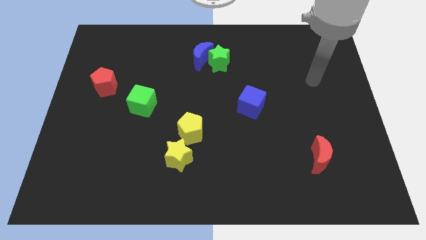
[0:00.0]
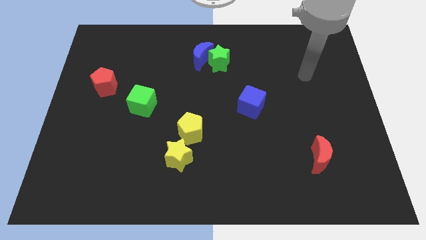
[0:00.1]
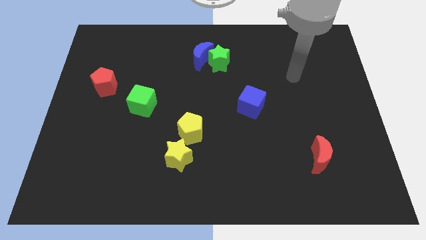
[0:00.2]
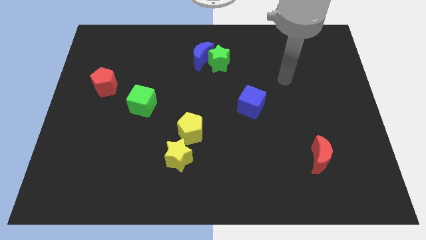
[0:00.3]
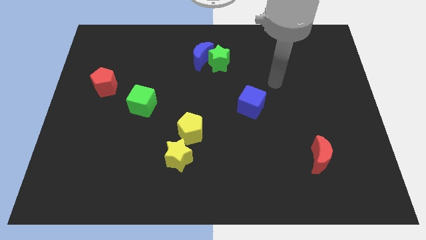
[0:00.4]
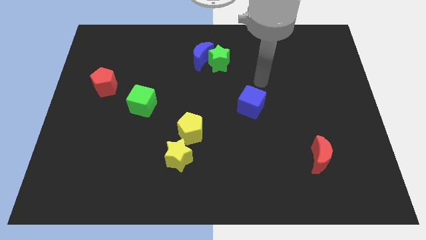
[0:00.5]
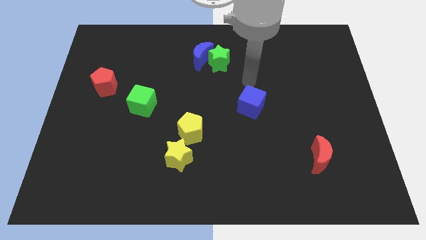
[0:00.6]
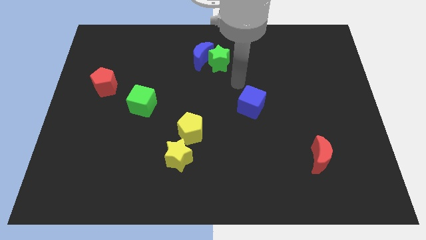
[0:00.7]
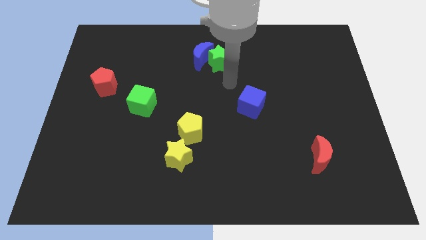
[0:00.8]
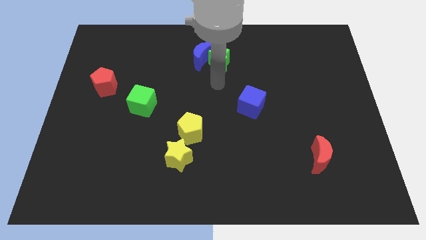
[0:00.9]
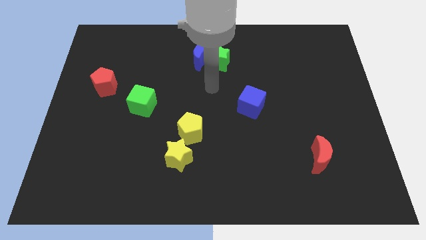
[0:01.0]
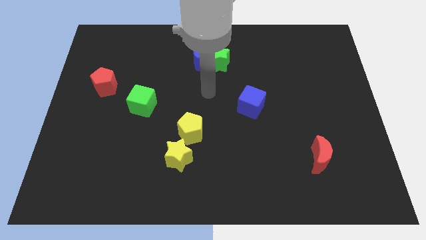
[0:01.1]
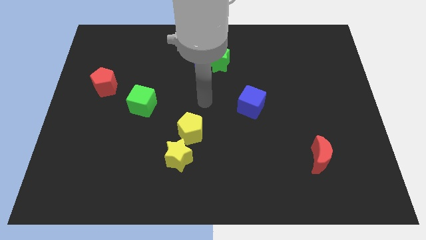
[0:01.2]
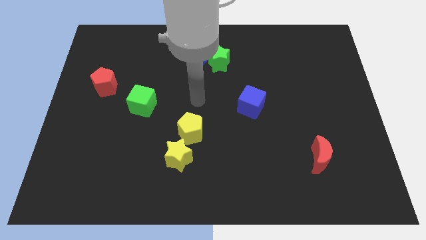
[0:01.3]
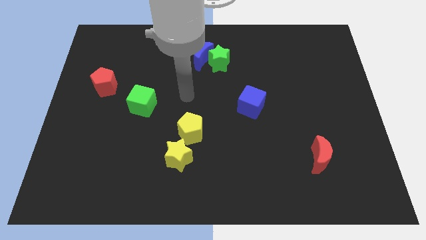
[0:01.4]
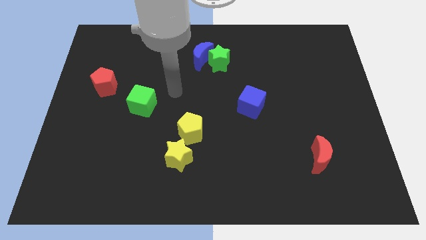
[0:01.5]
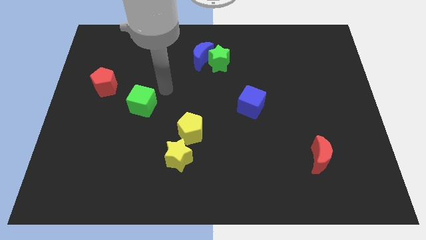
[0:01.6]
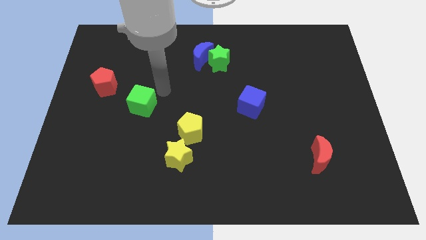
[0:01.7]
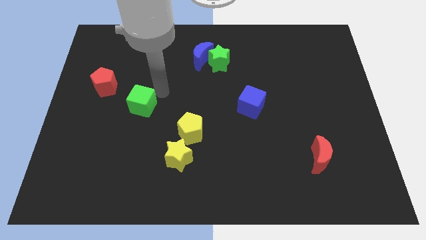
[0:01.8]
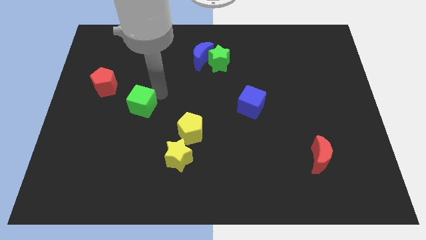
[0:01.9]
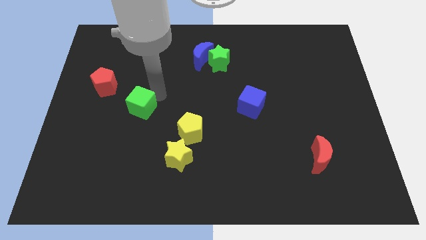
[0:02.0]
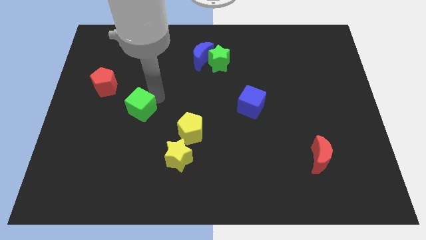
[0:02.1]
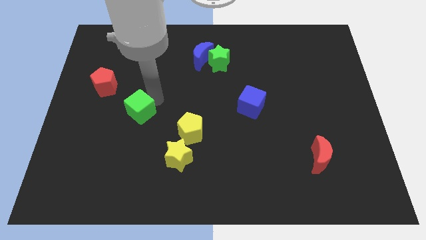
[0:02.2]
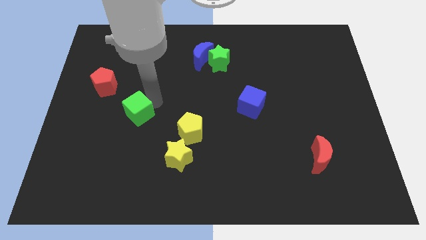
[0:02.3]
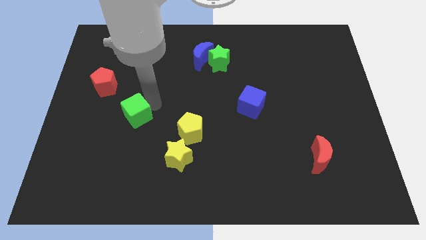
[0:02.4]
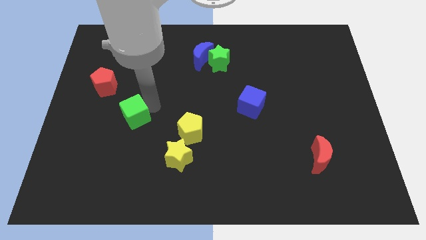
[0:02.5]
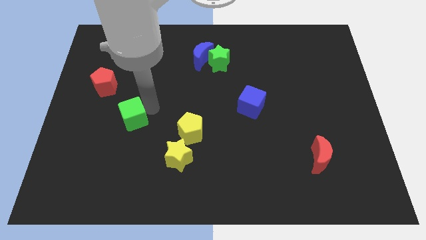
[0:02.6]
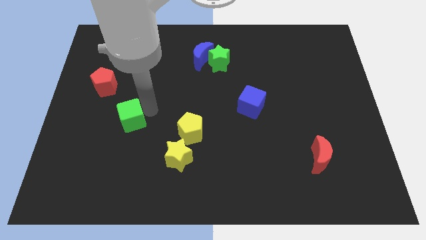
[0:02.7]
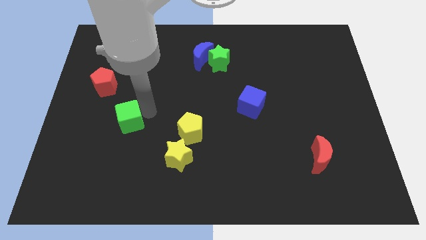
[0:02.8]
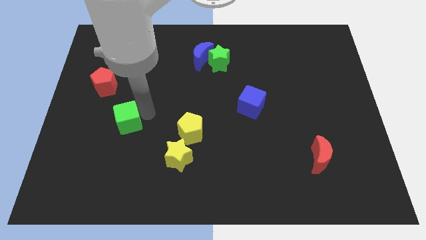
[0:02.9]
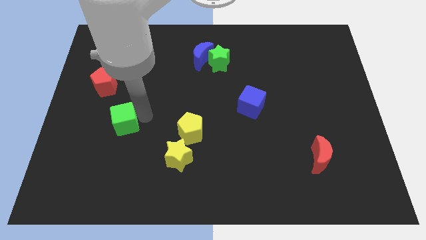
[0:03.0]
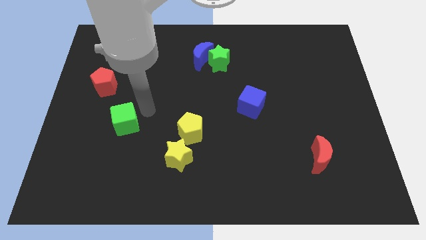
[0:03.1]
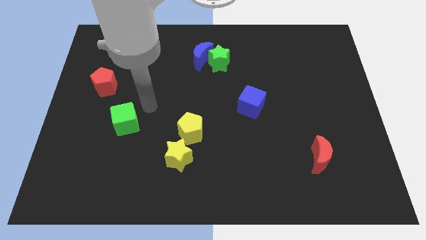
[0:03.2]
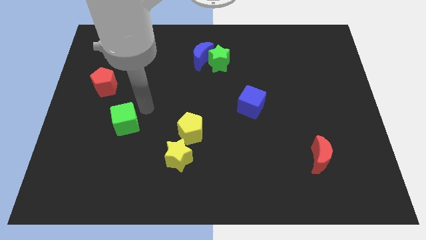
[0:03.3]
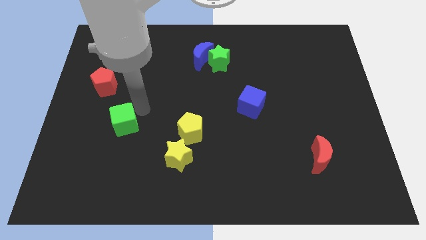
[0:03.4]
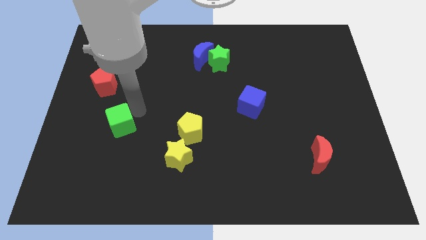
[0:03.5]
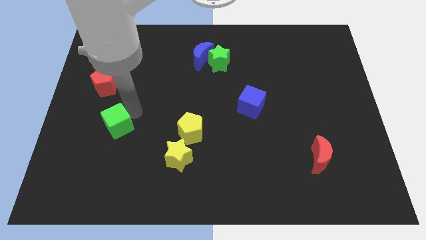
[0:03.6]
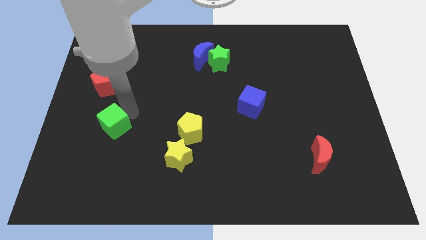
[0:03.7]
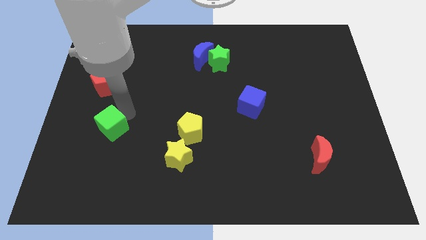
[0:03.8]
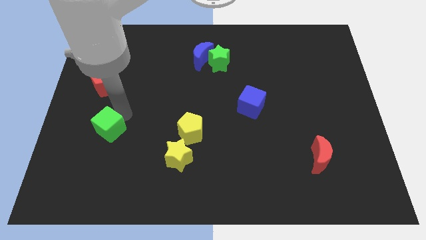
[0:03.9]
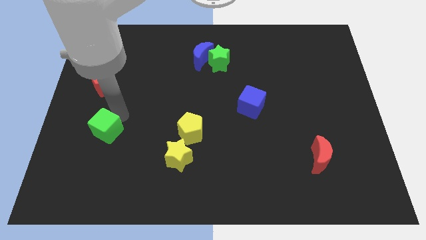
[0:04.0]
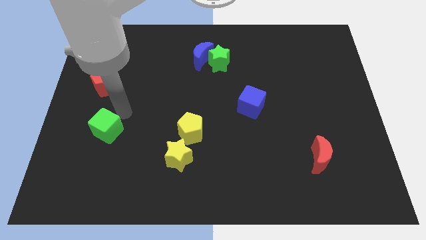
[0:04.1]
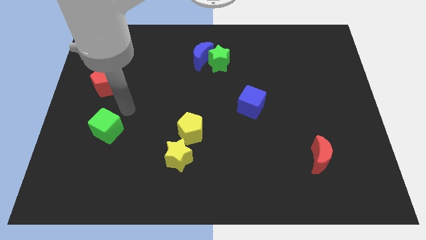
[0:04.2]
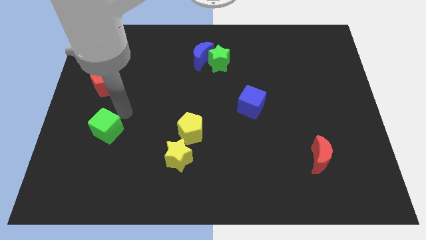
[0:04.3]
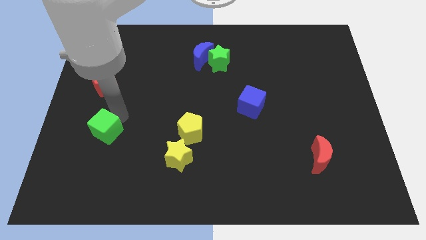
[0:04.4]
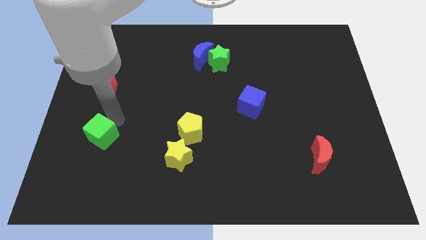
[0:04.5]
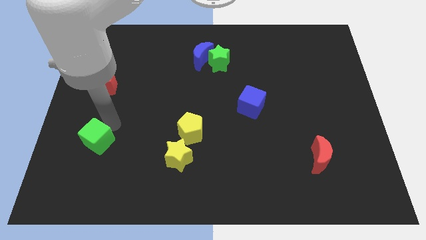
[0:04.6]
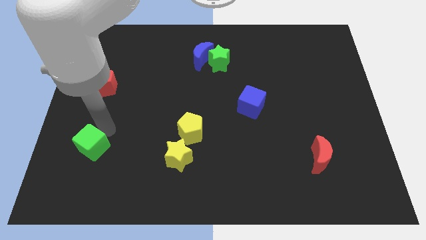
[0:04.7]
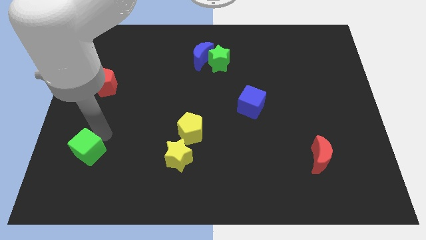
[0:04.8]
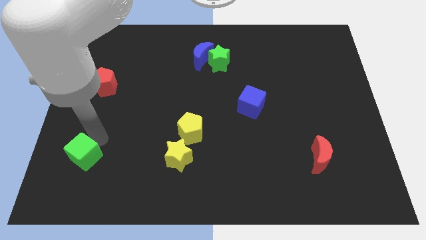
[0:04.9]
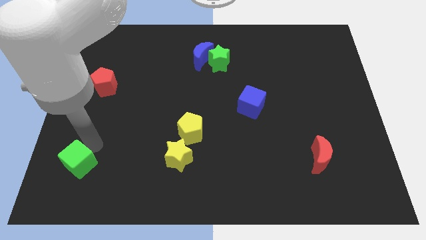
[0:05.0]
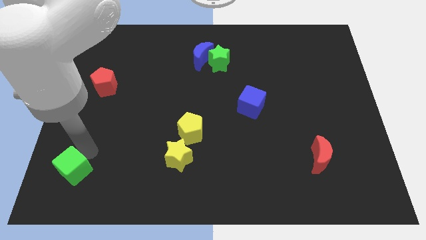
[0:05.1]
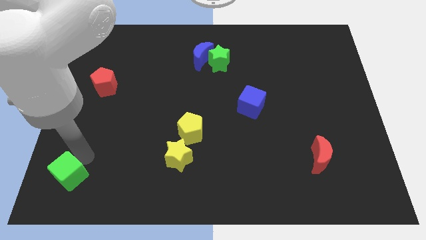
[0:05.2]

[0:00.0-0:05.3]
move the green cube to the bottom left

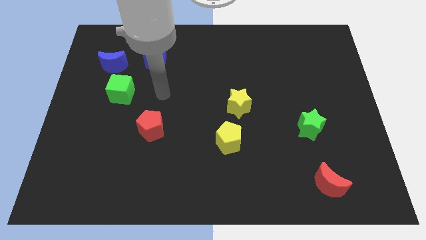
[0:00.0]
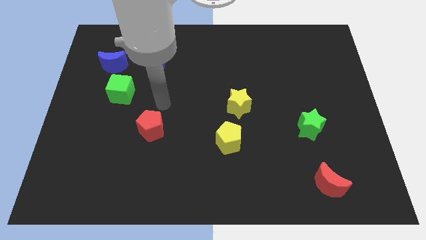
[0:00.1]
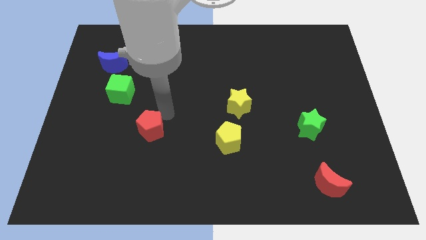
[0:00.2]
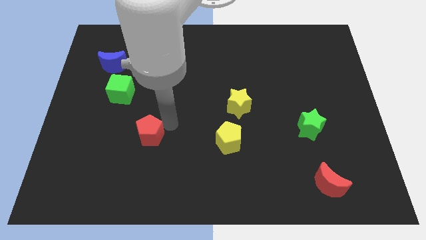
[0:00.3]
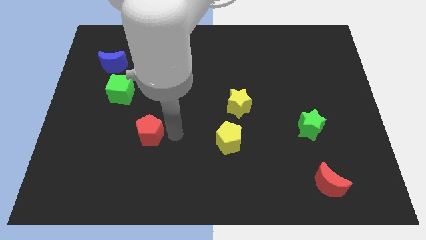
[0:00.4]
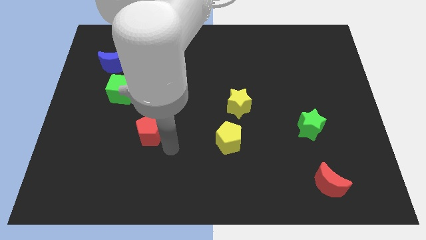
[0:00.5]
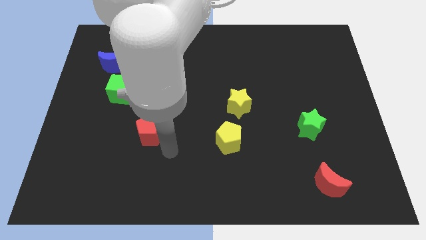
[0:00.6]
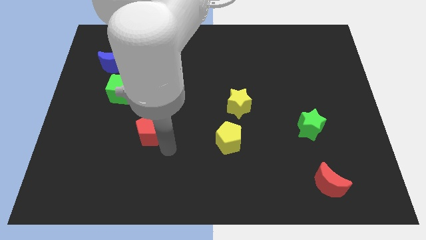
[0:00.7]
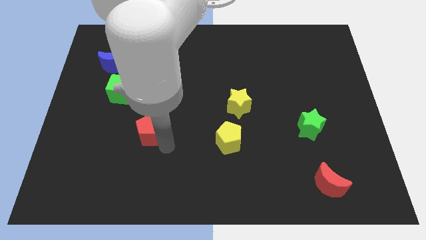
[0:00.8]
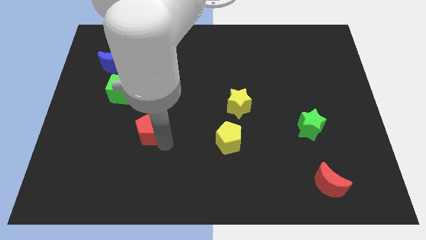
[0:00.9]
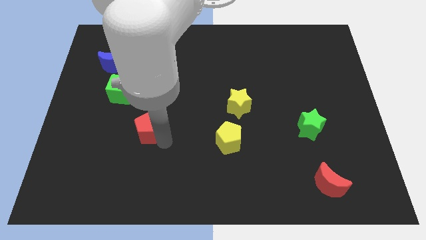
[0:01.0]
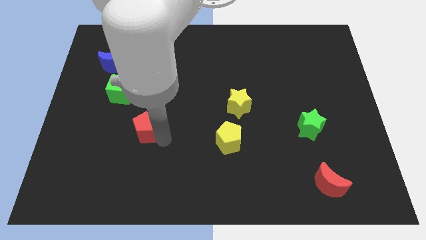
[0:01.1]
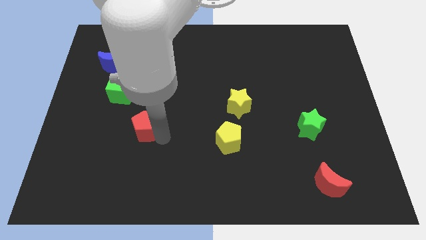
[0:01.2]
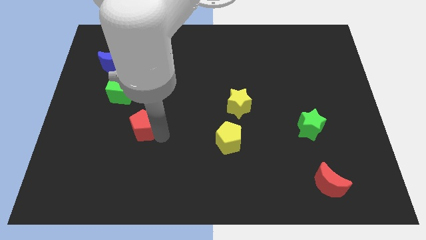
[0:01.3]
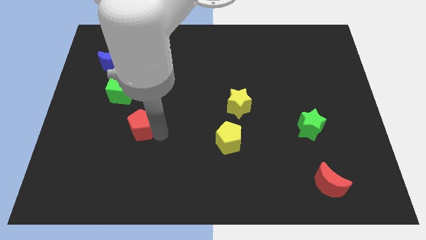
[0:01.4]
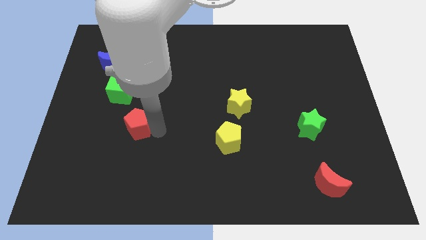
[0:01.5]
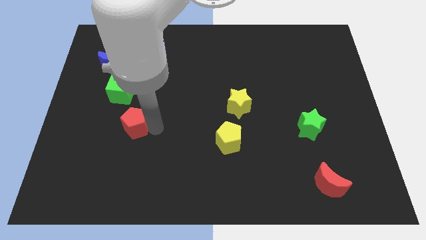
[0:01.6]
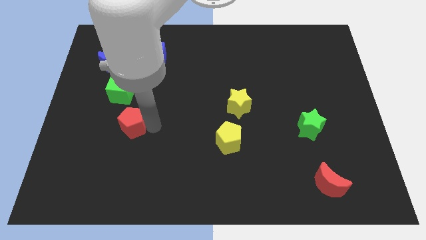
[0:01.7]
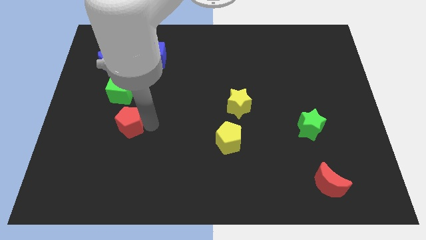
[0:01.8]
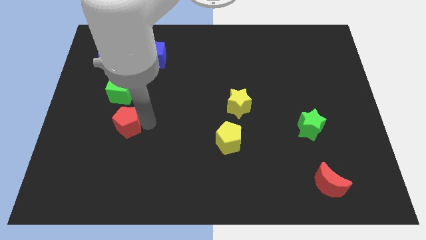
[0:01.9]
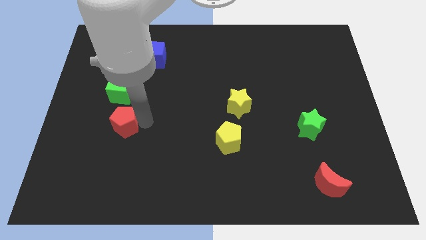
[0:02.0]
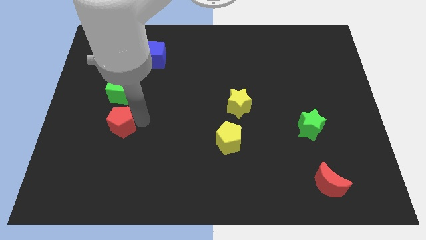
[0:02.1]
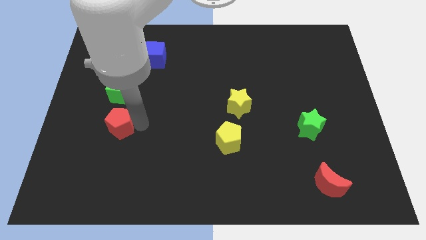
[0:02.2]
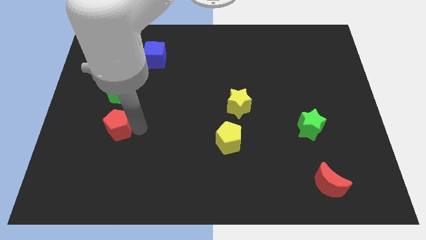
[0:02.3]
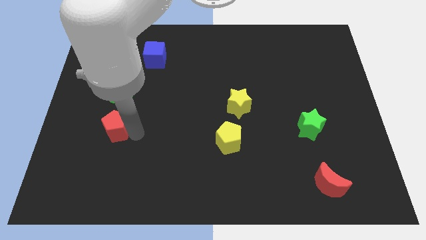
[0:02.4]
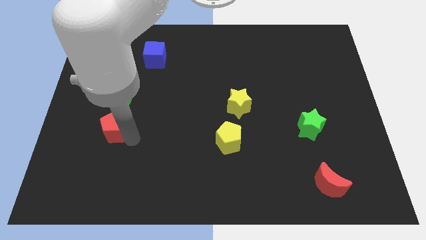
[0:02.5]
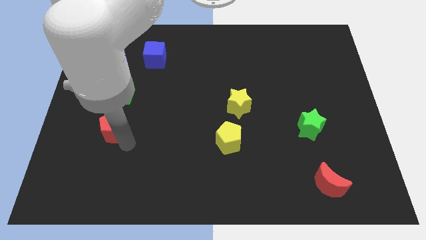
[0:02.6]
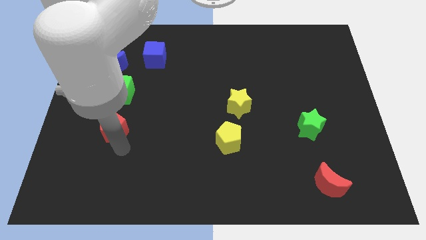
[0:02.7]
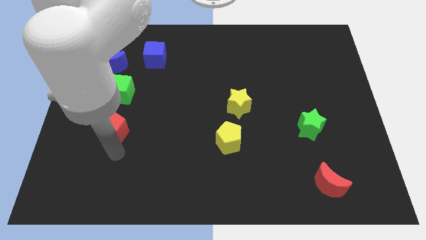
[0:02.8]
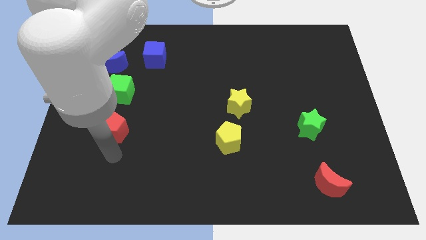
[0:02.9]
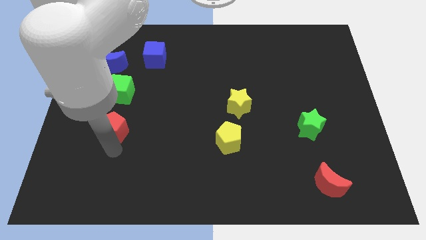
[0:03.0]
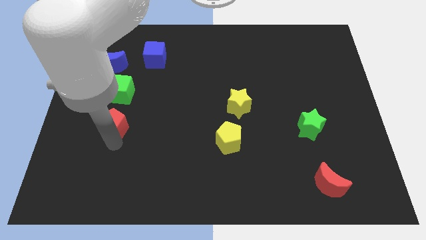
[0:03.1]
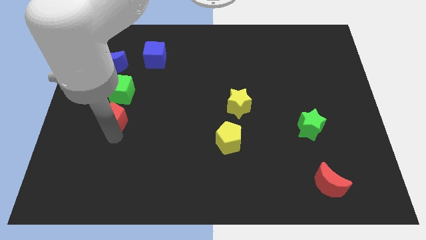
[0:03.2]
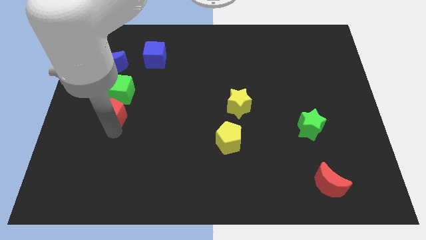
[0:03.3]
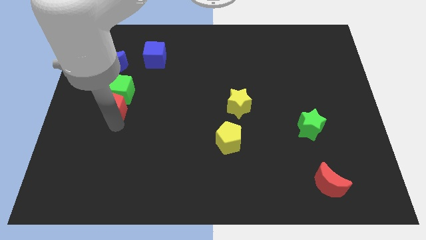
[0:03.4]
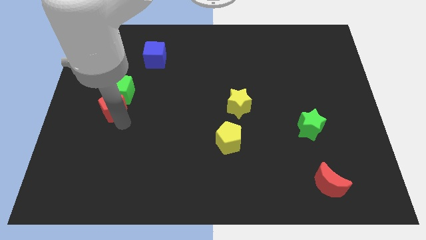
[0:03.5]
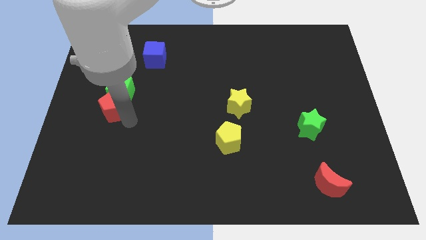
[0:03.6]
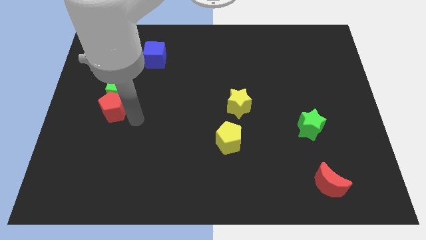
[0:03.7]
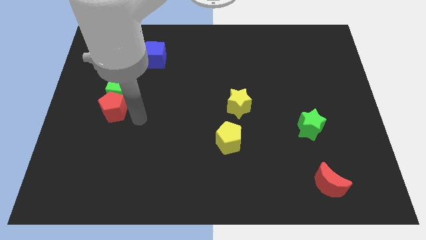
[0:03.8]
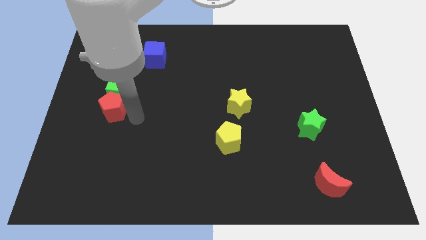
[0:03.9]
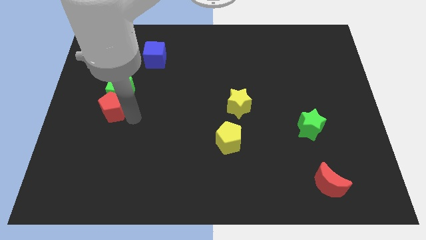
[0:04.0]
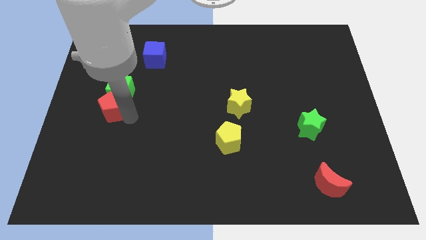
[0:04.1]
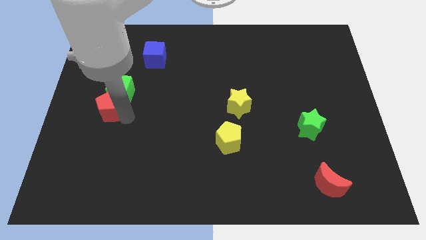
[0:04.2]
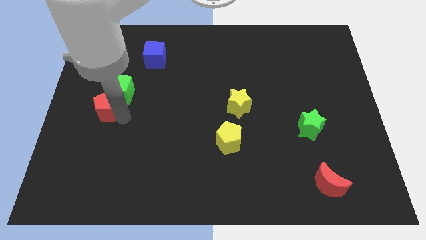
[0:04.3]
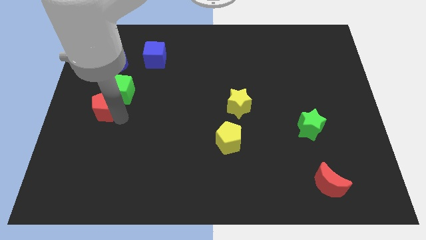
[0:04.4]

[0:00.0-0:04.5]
move the red pentagon to the center left
